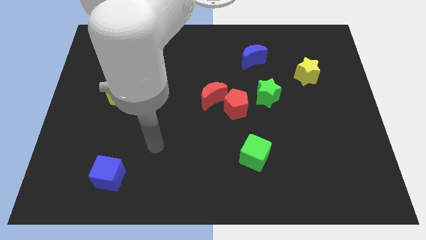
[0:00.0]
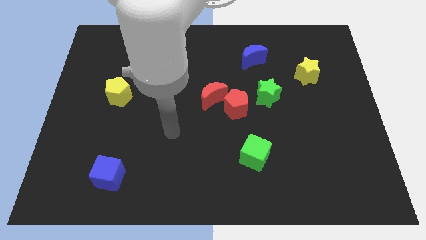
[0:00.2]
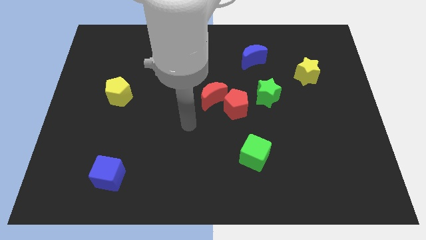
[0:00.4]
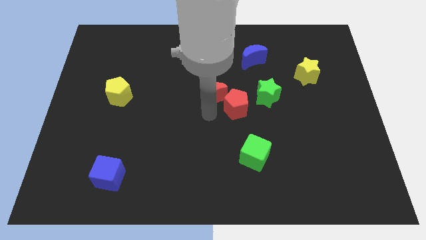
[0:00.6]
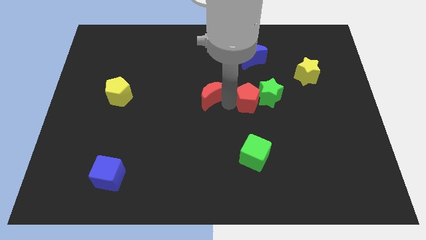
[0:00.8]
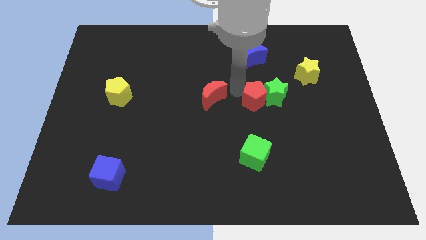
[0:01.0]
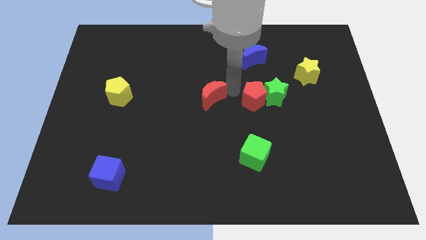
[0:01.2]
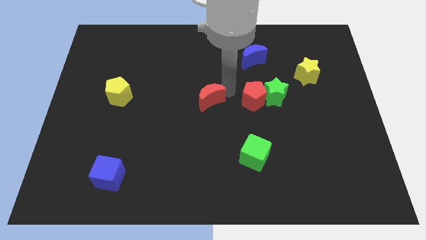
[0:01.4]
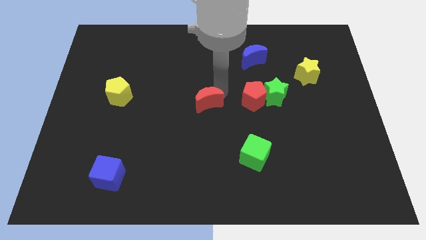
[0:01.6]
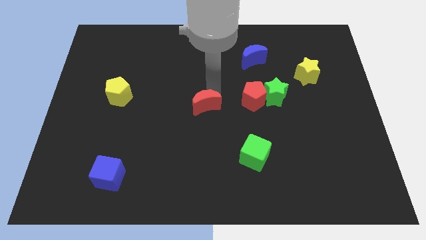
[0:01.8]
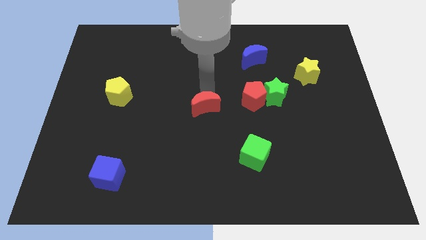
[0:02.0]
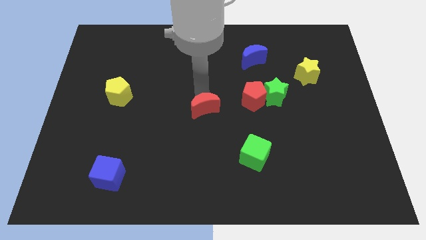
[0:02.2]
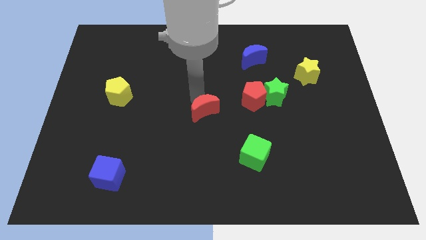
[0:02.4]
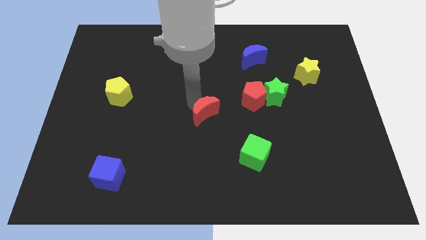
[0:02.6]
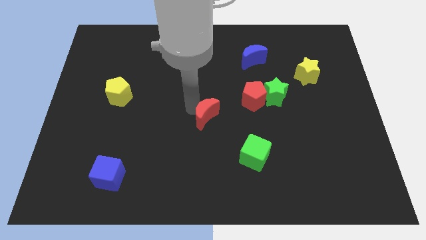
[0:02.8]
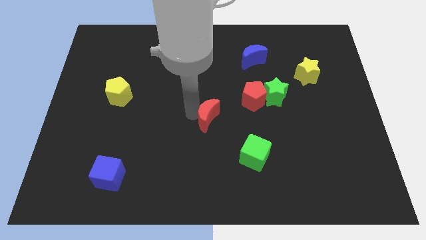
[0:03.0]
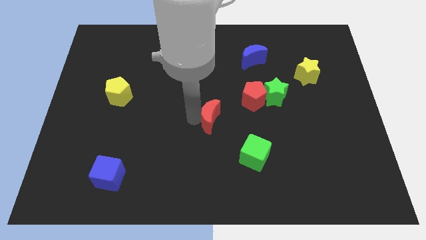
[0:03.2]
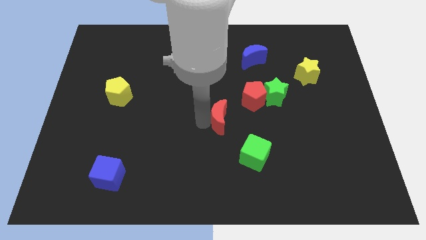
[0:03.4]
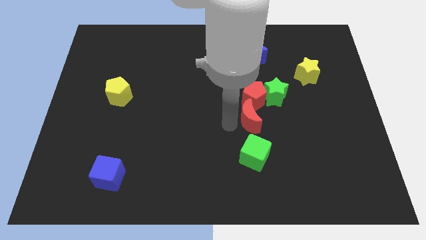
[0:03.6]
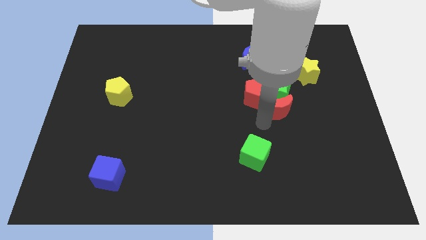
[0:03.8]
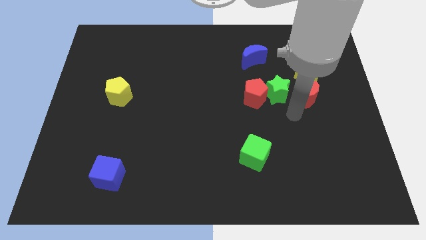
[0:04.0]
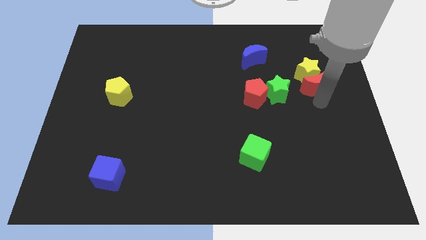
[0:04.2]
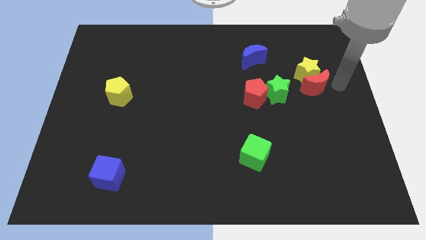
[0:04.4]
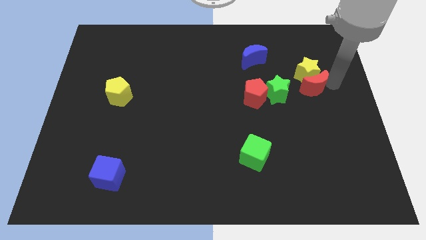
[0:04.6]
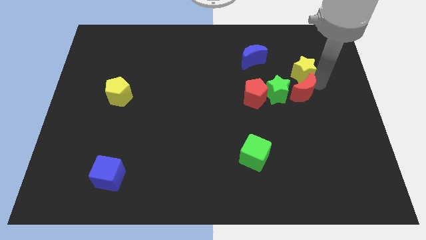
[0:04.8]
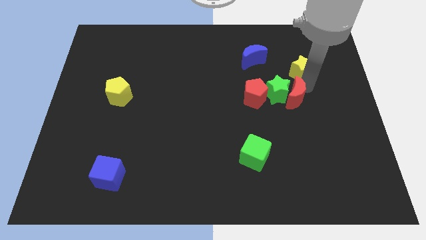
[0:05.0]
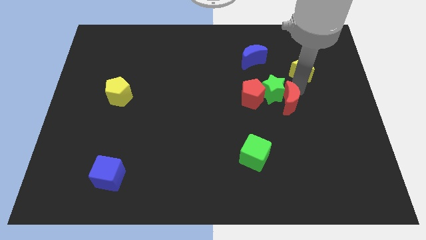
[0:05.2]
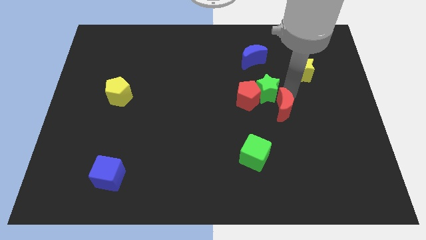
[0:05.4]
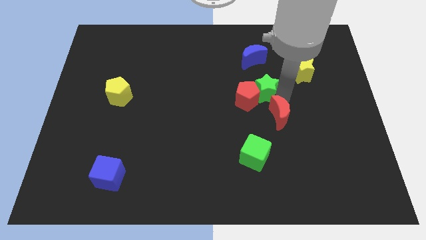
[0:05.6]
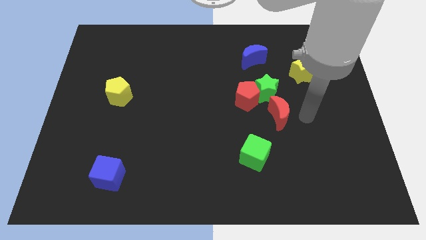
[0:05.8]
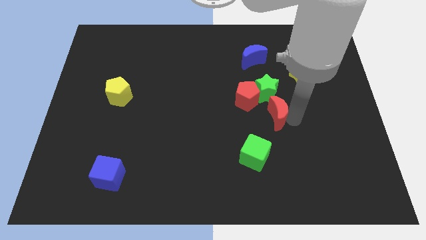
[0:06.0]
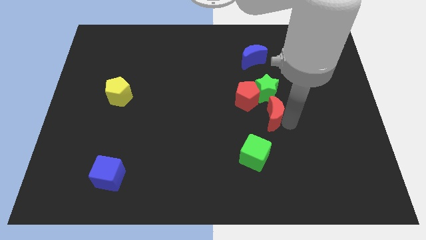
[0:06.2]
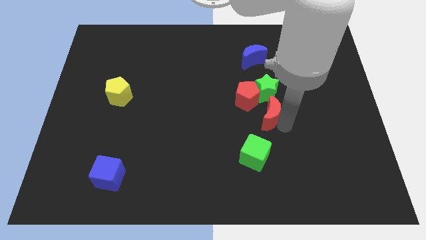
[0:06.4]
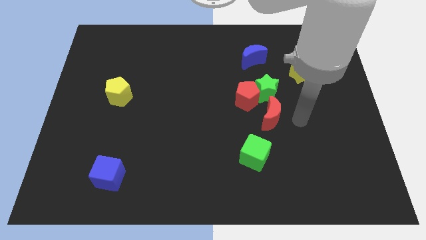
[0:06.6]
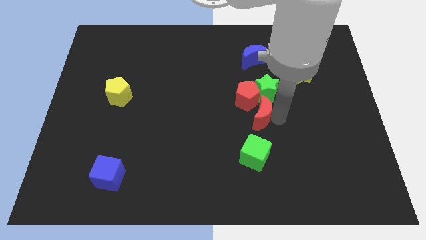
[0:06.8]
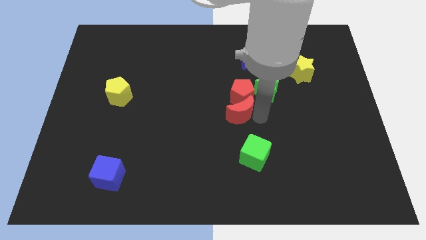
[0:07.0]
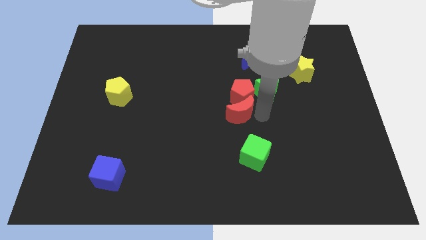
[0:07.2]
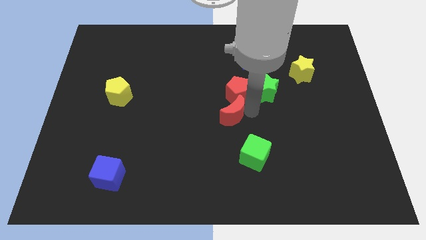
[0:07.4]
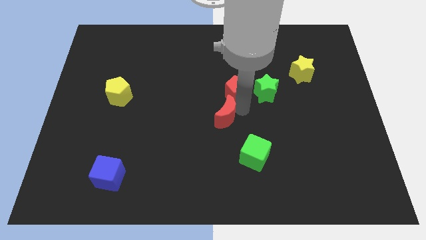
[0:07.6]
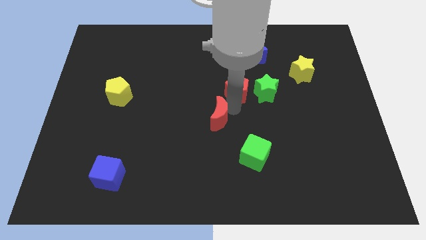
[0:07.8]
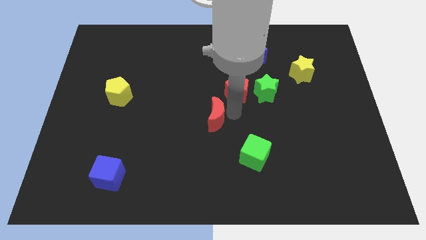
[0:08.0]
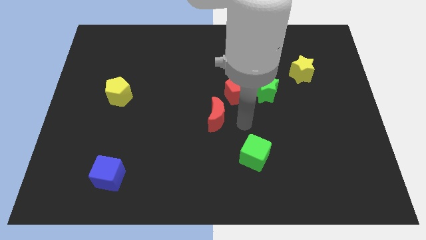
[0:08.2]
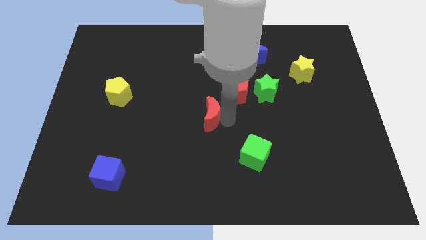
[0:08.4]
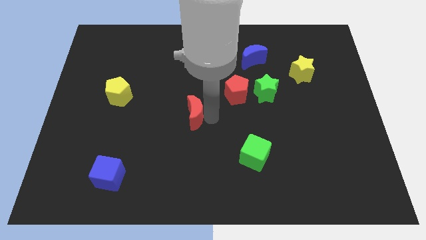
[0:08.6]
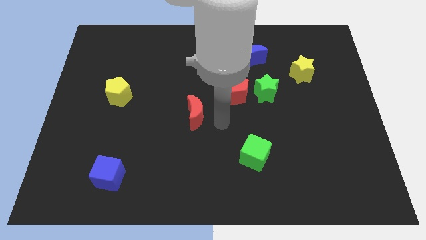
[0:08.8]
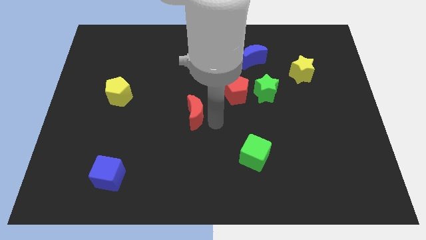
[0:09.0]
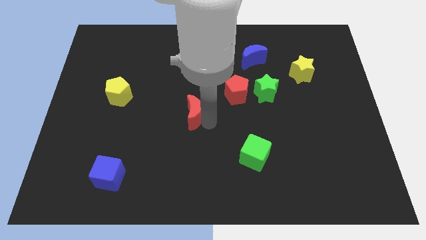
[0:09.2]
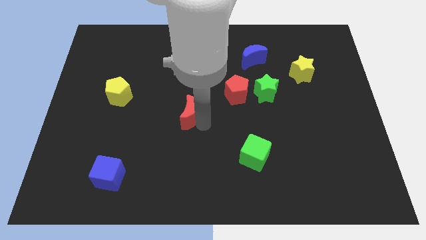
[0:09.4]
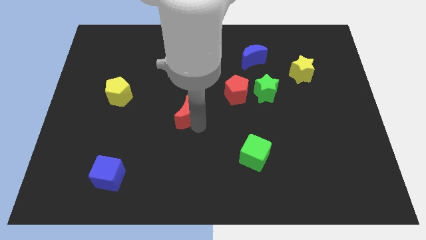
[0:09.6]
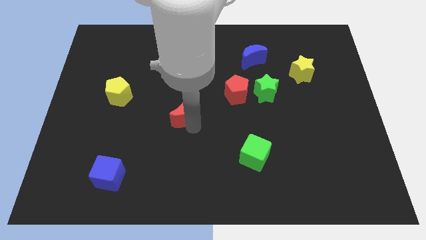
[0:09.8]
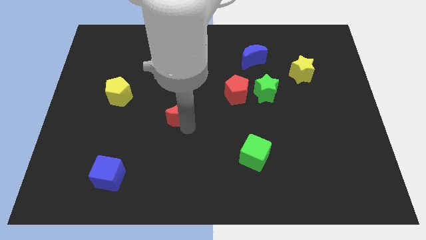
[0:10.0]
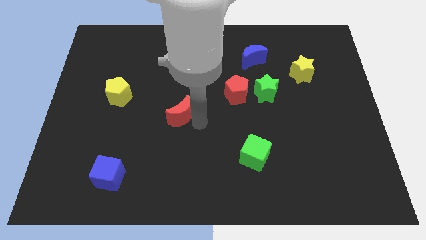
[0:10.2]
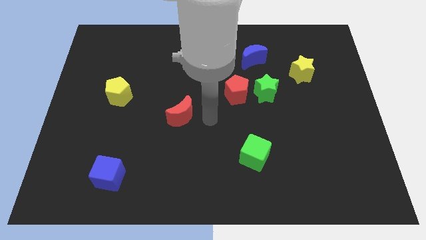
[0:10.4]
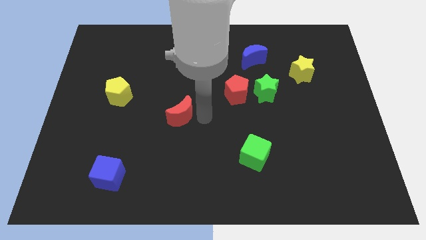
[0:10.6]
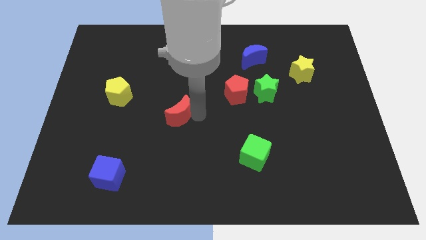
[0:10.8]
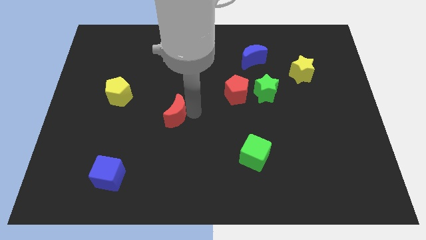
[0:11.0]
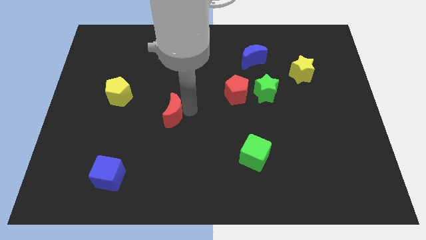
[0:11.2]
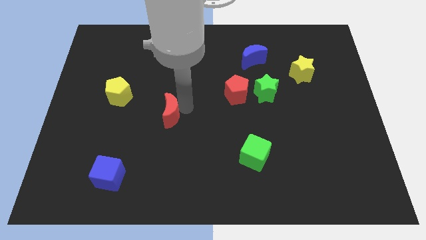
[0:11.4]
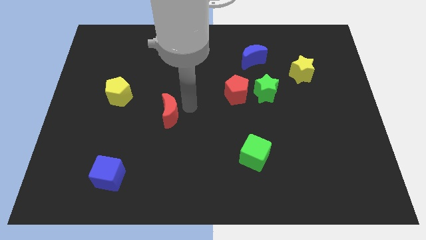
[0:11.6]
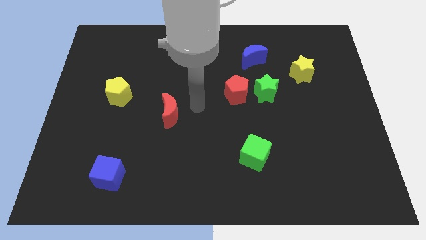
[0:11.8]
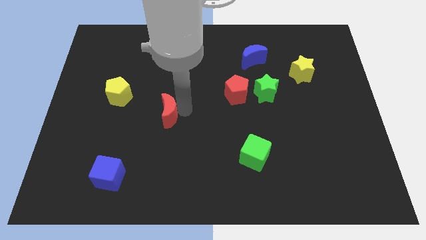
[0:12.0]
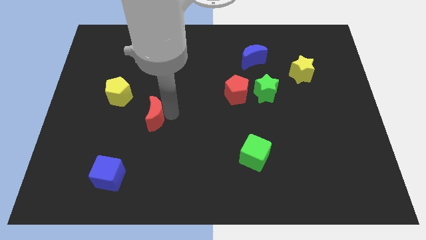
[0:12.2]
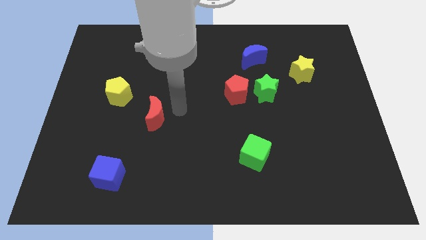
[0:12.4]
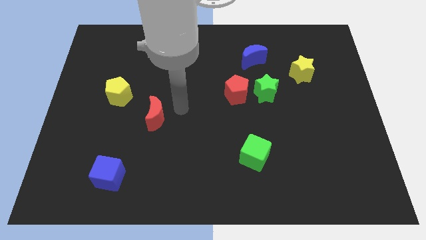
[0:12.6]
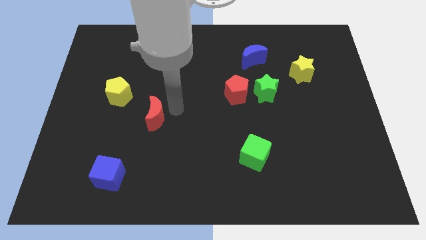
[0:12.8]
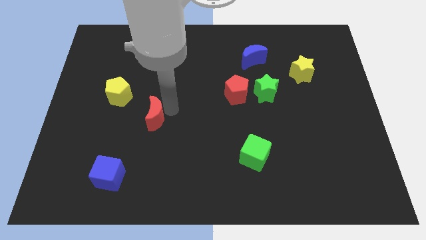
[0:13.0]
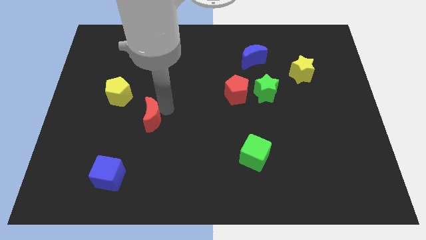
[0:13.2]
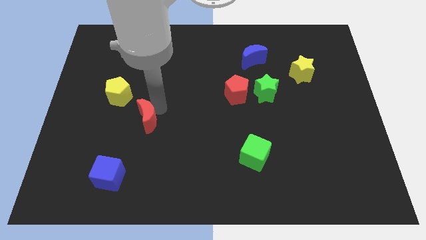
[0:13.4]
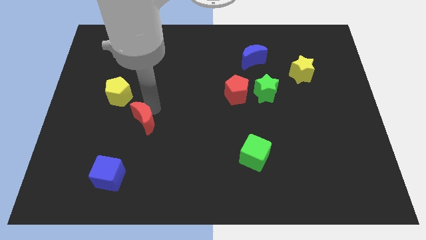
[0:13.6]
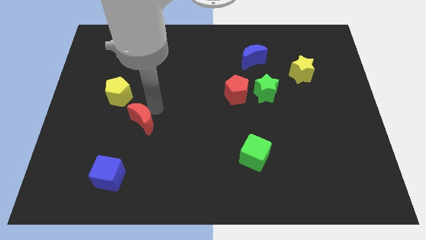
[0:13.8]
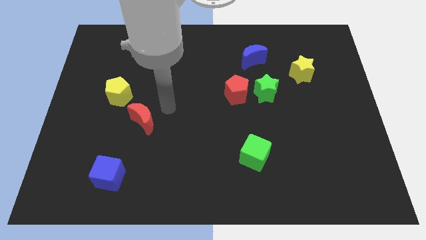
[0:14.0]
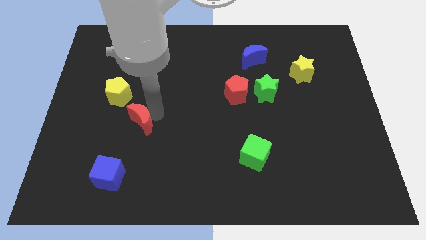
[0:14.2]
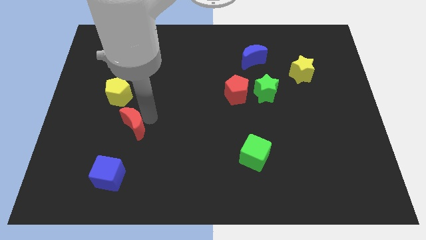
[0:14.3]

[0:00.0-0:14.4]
put the red moon above the blue cube

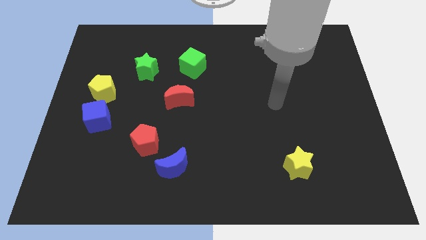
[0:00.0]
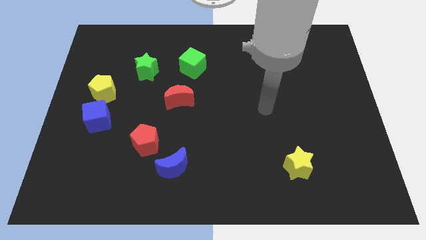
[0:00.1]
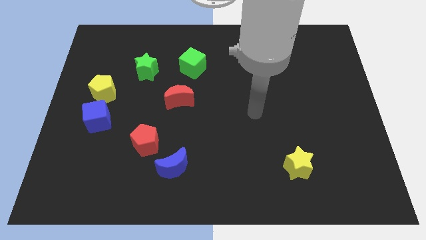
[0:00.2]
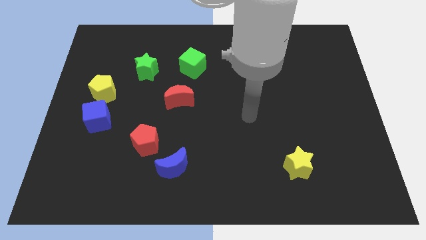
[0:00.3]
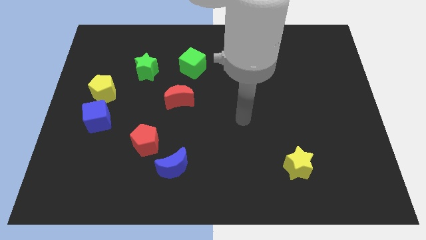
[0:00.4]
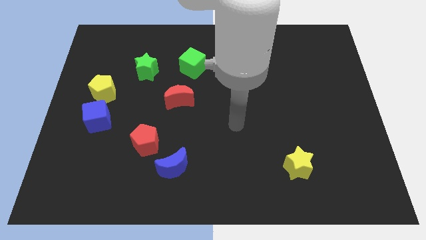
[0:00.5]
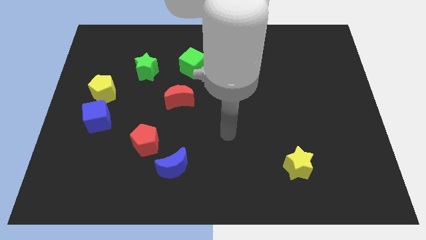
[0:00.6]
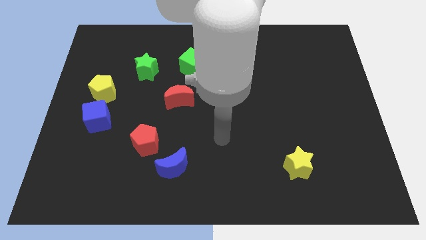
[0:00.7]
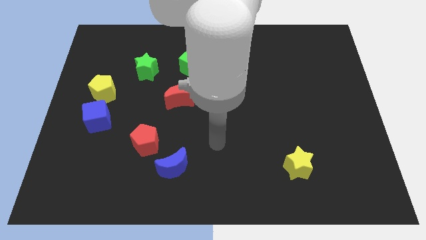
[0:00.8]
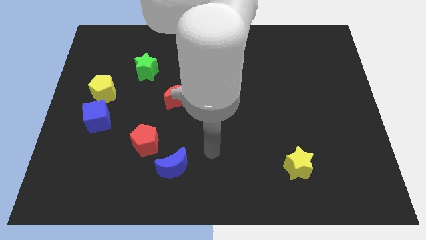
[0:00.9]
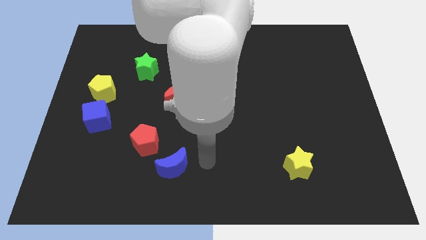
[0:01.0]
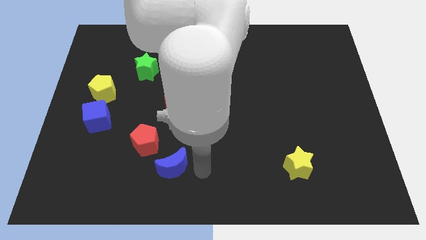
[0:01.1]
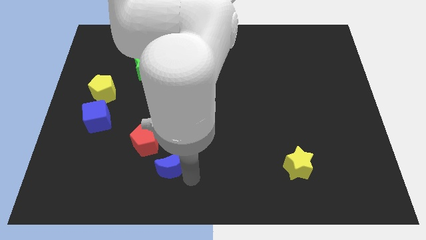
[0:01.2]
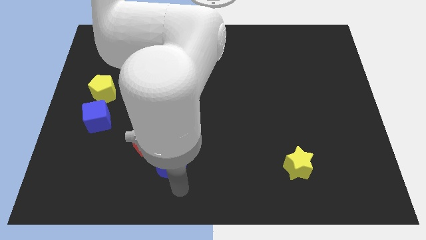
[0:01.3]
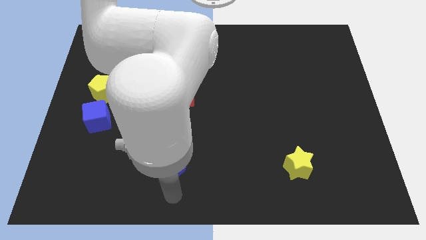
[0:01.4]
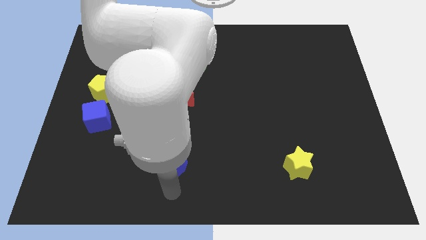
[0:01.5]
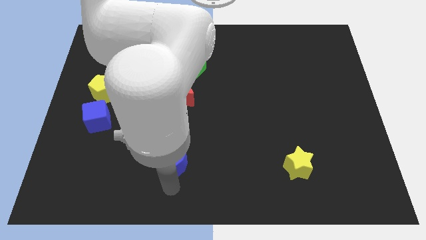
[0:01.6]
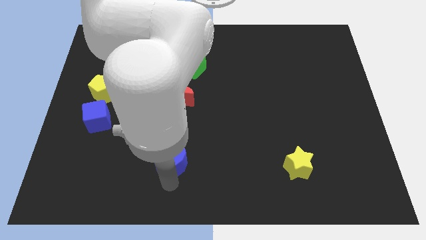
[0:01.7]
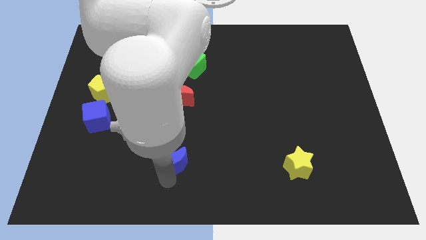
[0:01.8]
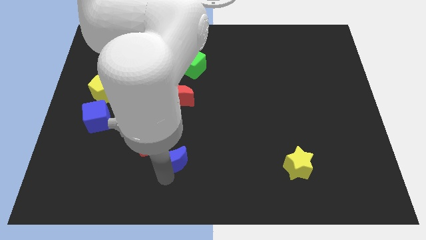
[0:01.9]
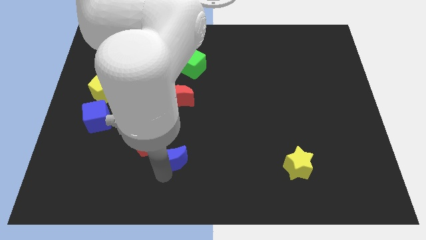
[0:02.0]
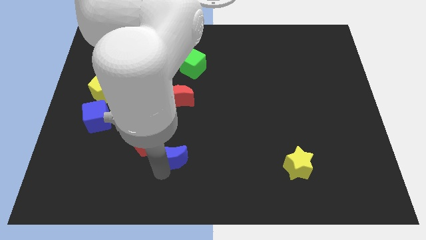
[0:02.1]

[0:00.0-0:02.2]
move the blue moon below the red moon
